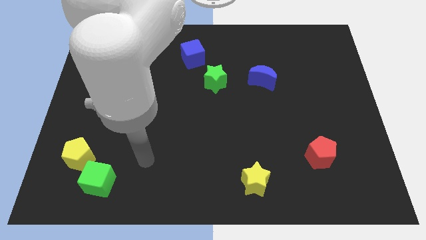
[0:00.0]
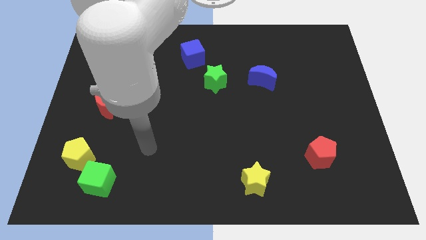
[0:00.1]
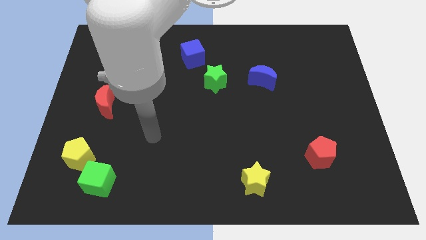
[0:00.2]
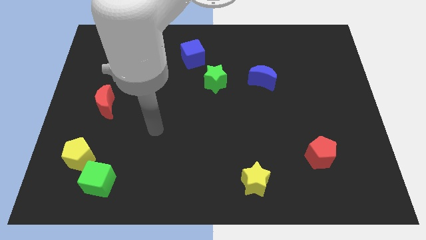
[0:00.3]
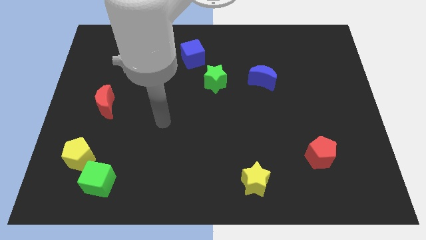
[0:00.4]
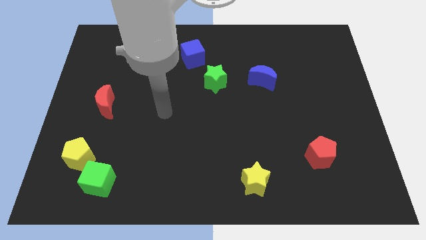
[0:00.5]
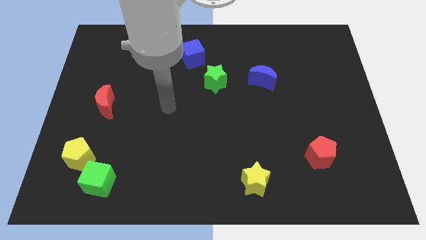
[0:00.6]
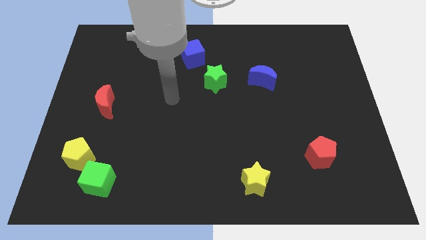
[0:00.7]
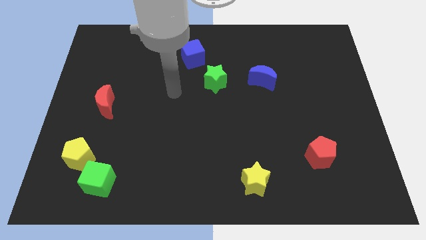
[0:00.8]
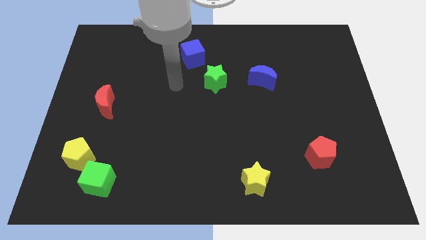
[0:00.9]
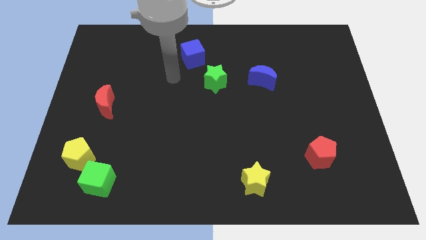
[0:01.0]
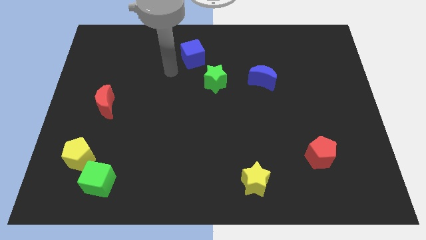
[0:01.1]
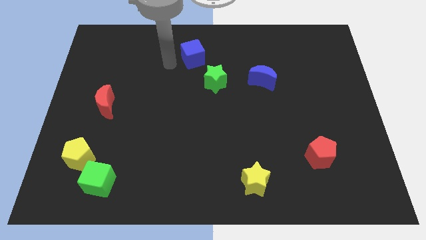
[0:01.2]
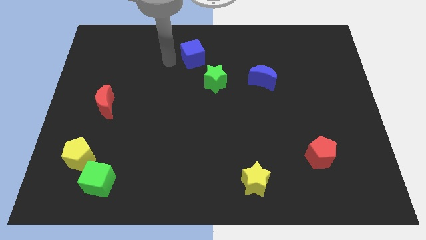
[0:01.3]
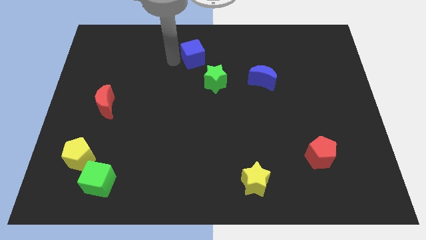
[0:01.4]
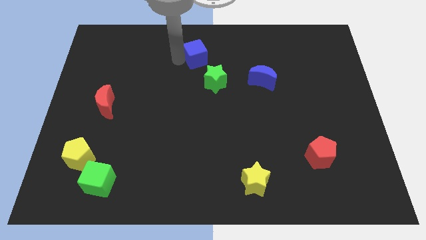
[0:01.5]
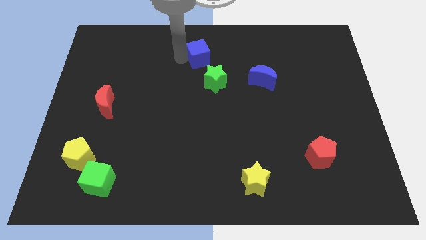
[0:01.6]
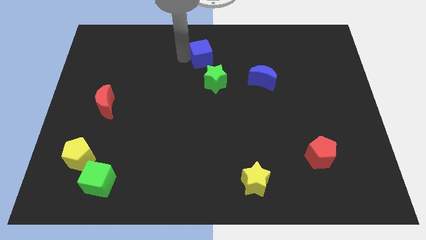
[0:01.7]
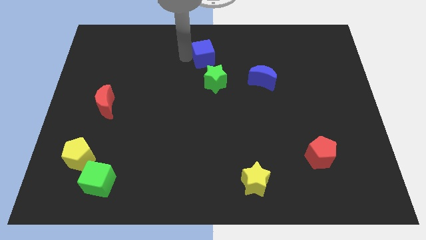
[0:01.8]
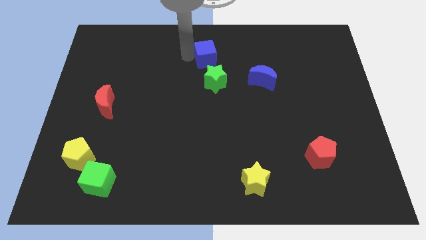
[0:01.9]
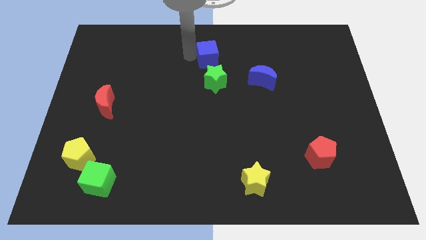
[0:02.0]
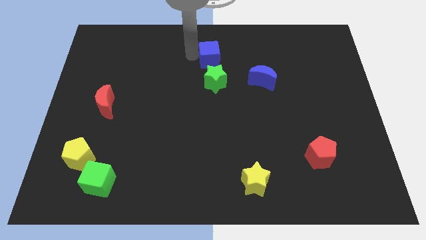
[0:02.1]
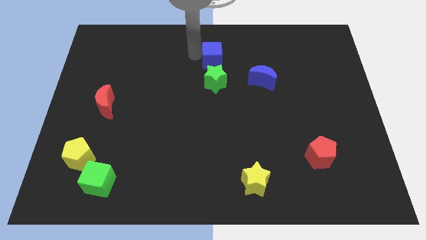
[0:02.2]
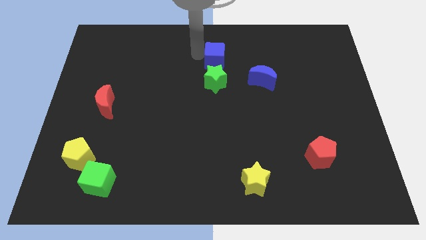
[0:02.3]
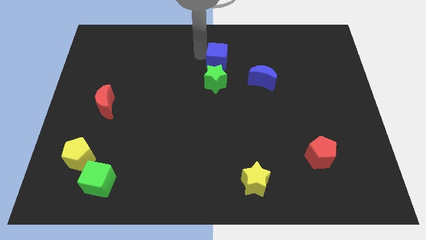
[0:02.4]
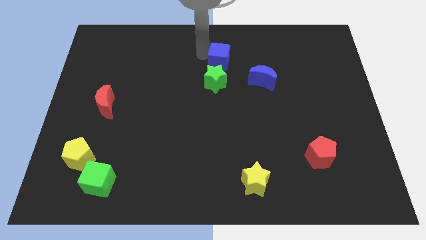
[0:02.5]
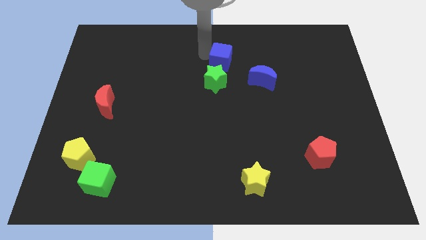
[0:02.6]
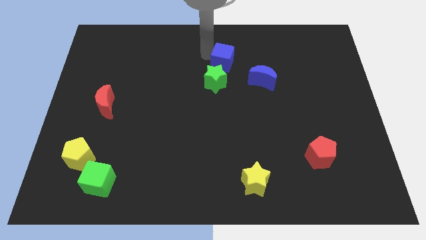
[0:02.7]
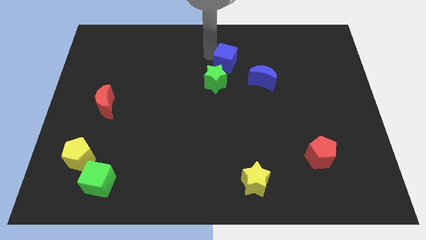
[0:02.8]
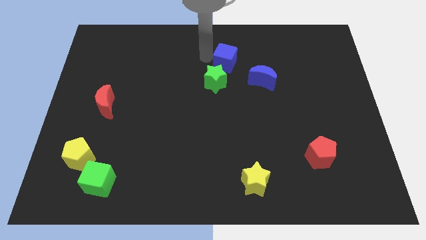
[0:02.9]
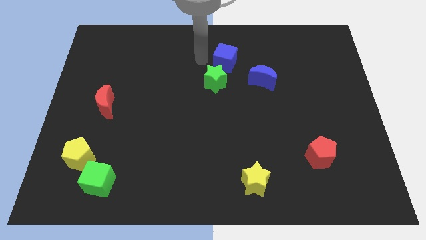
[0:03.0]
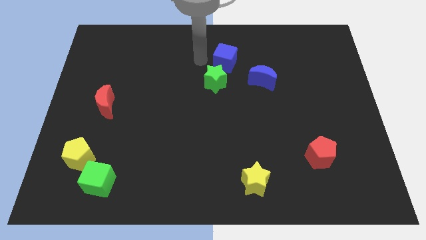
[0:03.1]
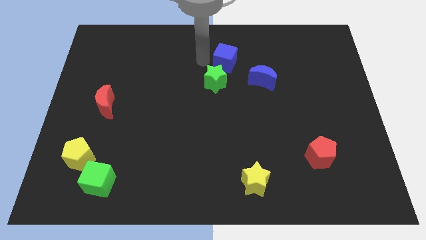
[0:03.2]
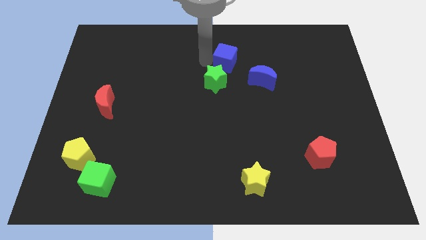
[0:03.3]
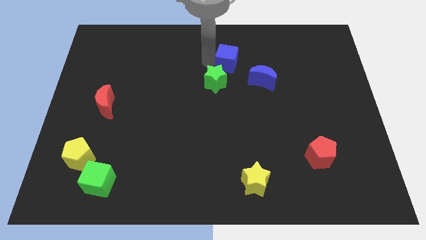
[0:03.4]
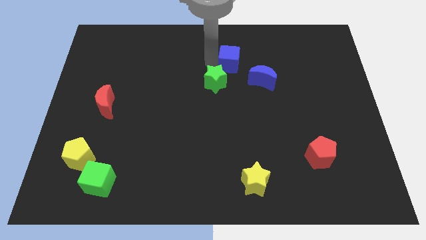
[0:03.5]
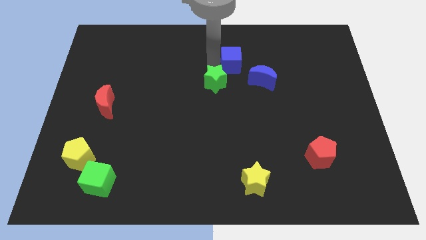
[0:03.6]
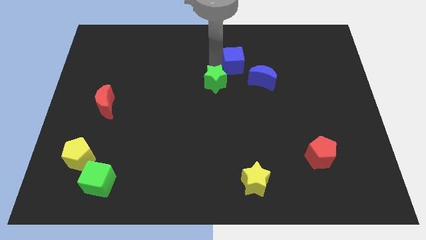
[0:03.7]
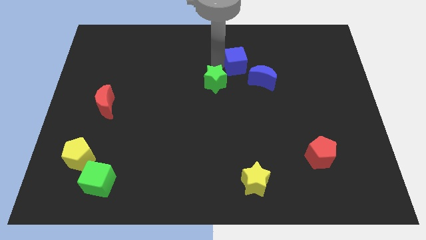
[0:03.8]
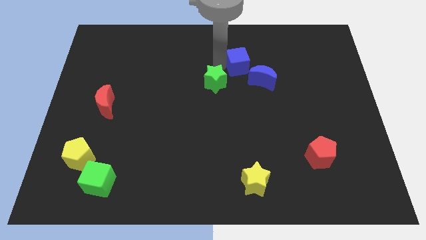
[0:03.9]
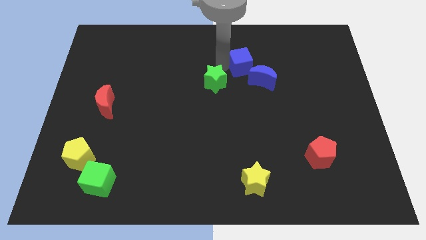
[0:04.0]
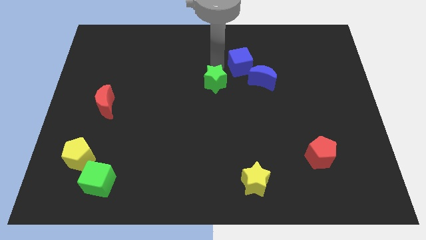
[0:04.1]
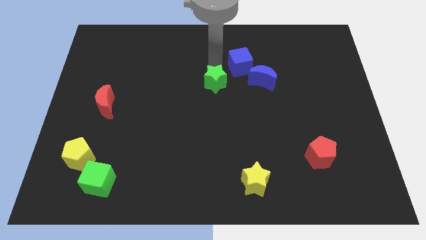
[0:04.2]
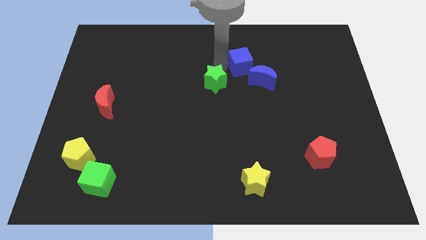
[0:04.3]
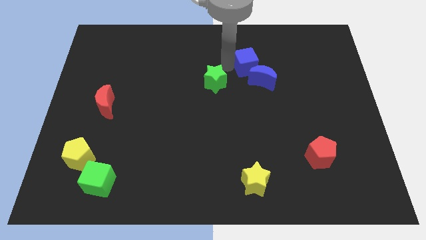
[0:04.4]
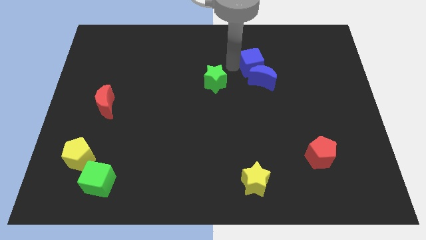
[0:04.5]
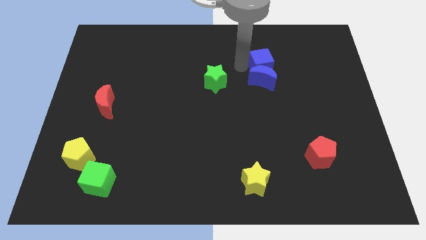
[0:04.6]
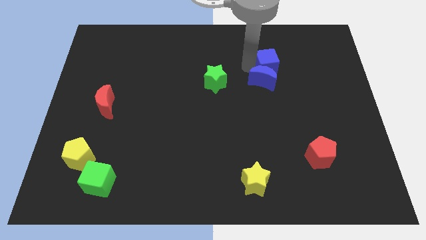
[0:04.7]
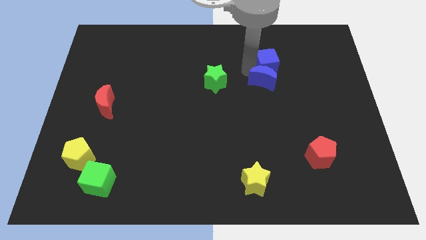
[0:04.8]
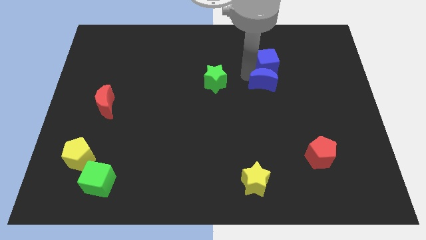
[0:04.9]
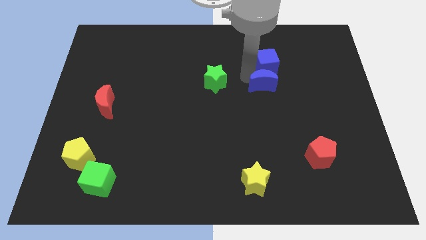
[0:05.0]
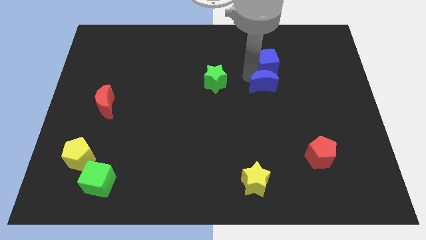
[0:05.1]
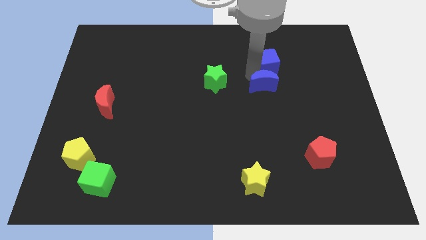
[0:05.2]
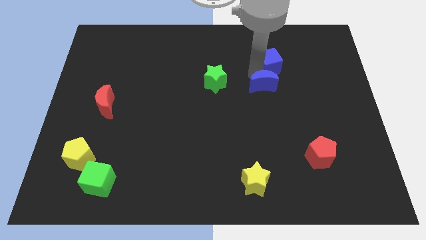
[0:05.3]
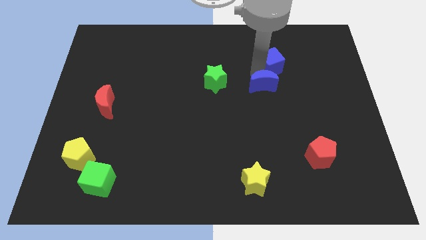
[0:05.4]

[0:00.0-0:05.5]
move the blue cube to the right

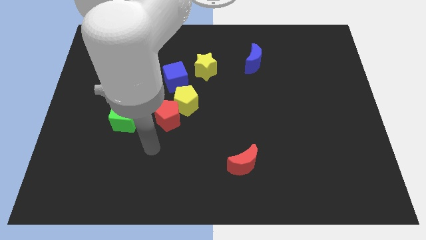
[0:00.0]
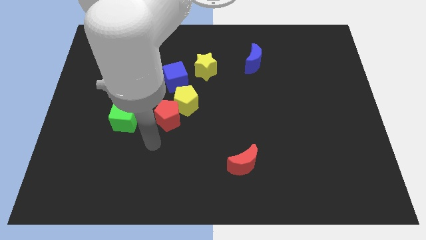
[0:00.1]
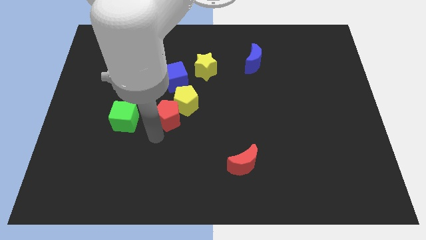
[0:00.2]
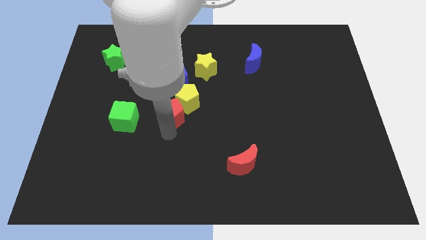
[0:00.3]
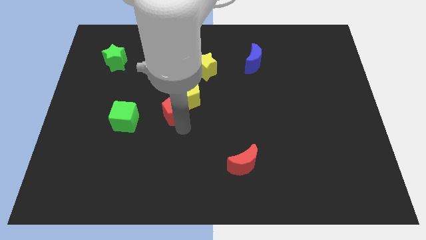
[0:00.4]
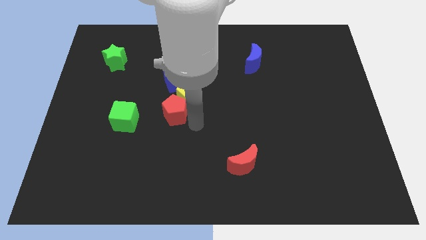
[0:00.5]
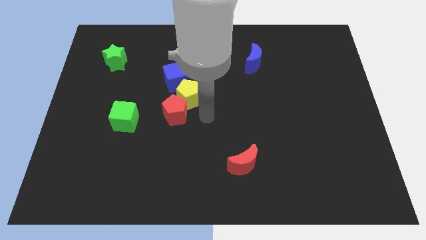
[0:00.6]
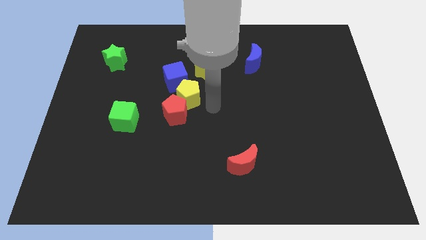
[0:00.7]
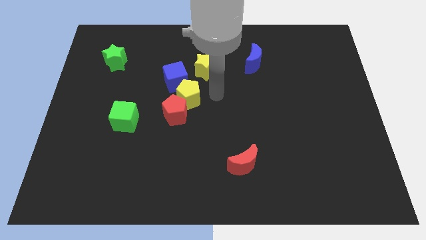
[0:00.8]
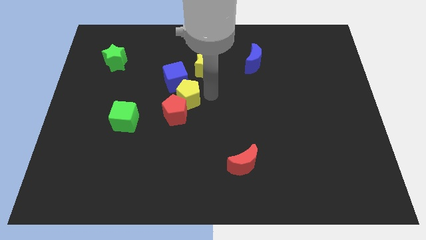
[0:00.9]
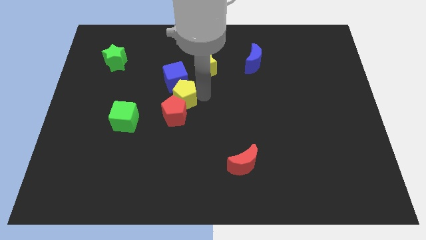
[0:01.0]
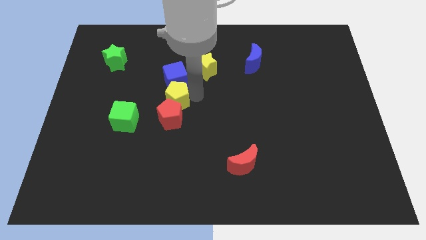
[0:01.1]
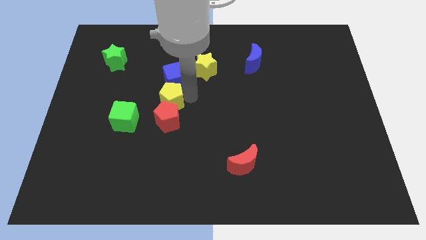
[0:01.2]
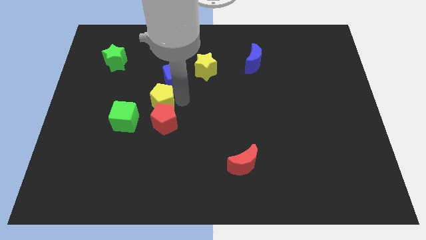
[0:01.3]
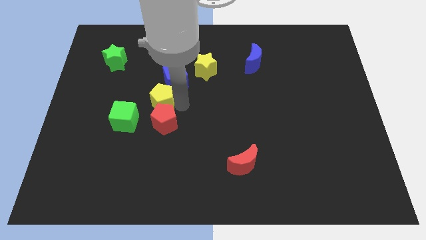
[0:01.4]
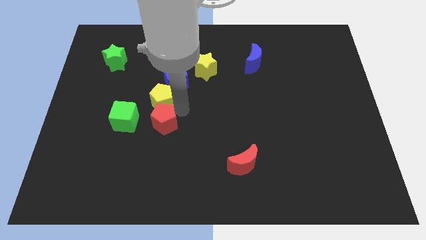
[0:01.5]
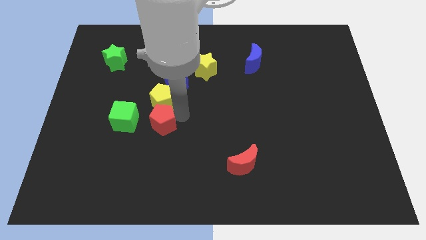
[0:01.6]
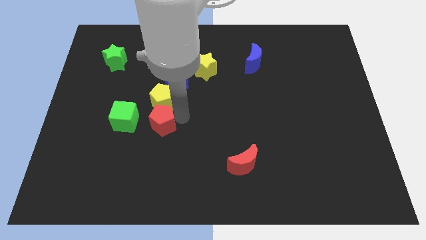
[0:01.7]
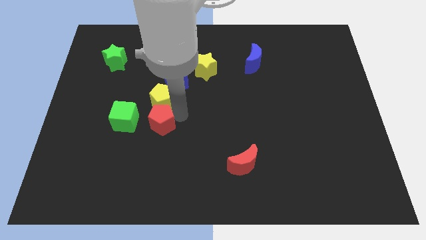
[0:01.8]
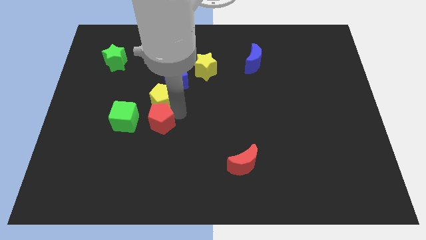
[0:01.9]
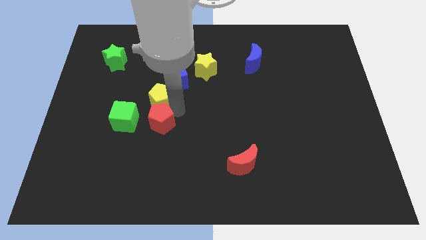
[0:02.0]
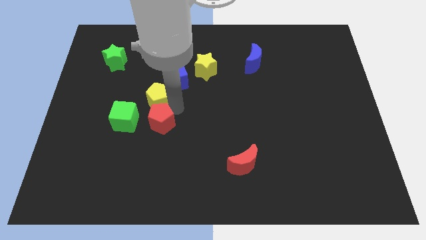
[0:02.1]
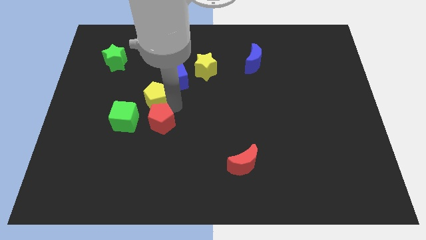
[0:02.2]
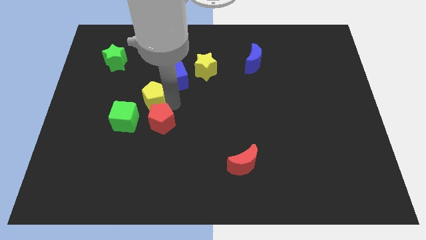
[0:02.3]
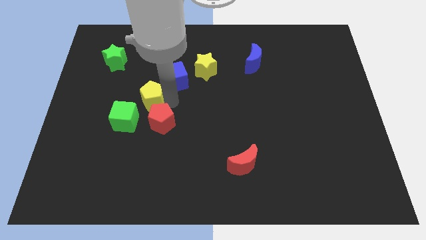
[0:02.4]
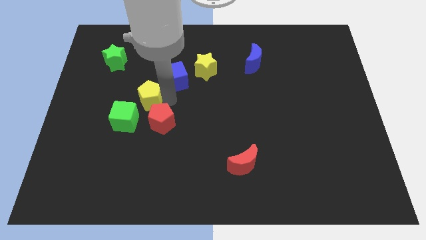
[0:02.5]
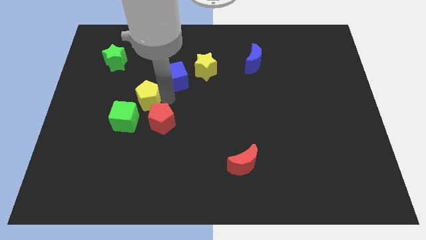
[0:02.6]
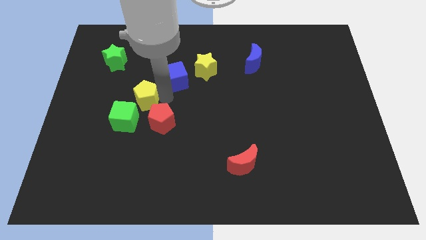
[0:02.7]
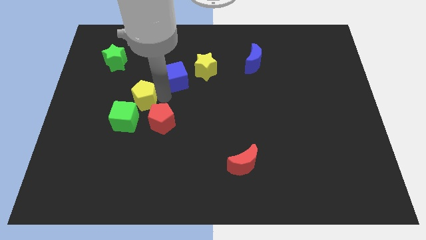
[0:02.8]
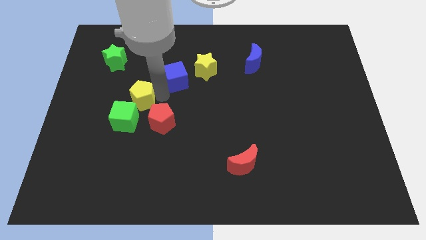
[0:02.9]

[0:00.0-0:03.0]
push the yellow pentagon up and left diagonally a bit
